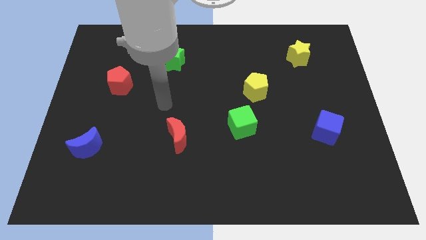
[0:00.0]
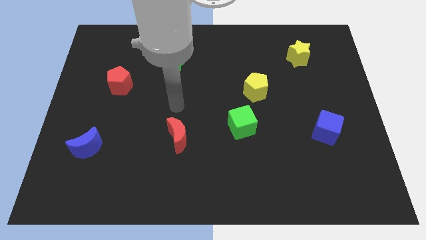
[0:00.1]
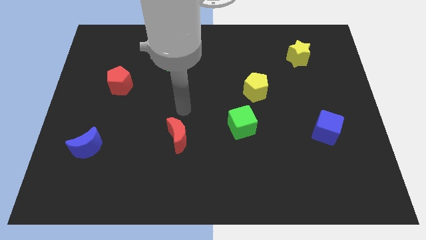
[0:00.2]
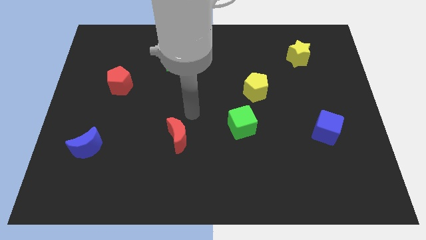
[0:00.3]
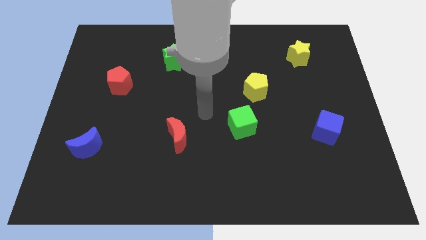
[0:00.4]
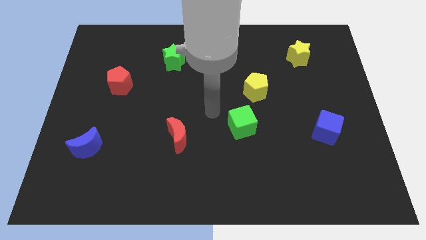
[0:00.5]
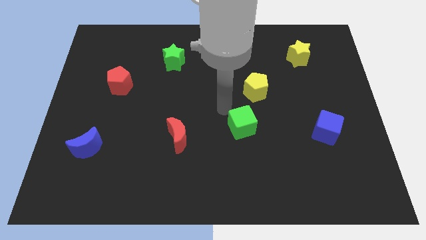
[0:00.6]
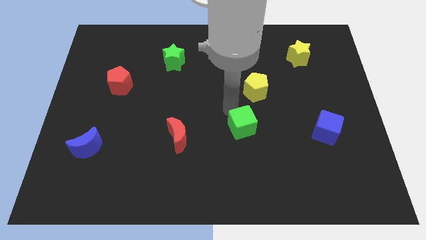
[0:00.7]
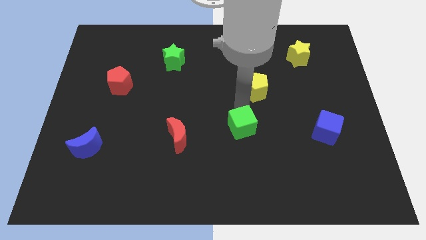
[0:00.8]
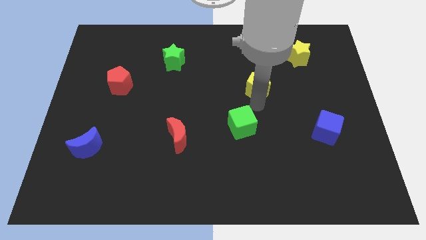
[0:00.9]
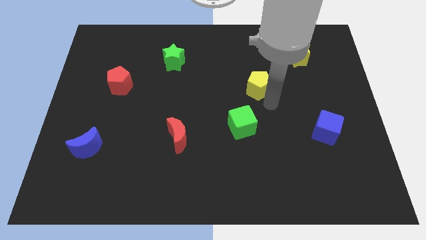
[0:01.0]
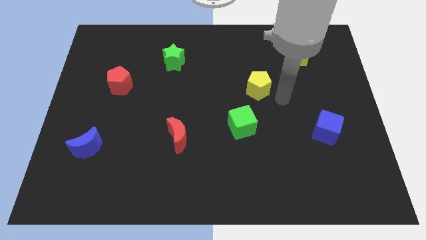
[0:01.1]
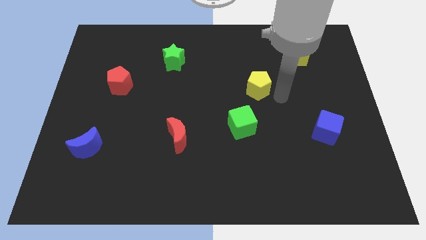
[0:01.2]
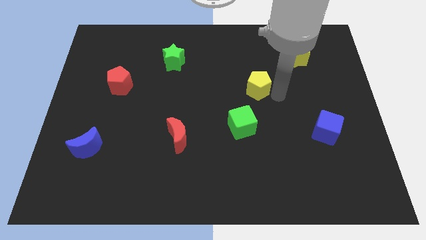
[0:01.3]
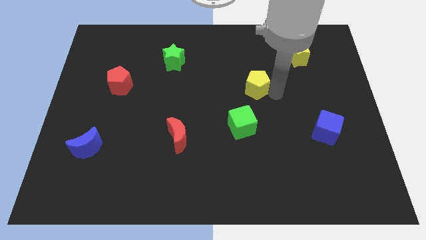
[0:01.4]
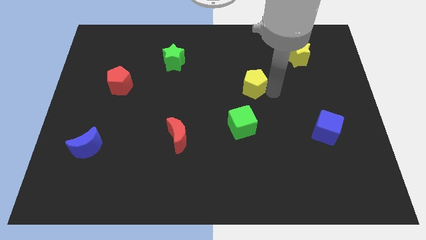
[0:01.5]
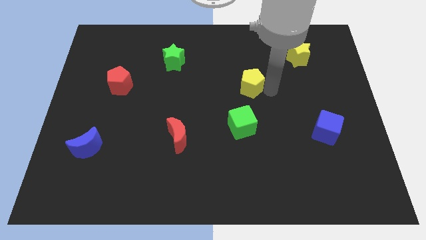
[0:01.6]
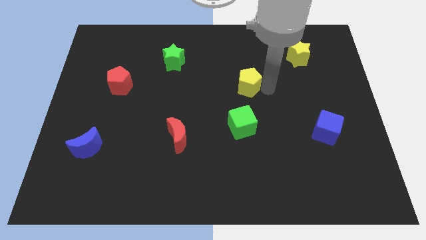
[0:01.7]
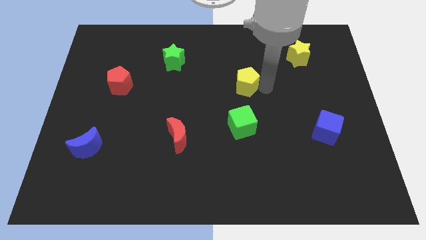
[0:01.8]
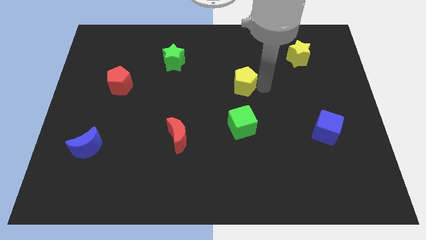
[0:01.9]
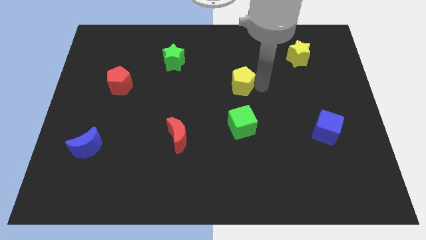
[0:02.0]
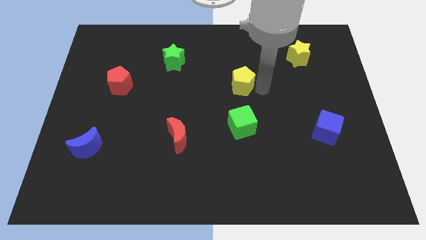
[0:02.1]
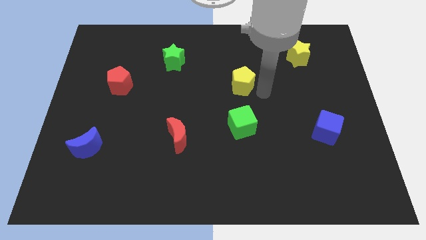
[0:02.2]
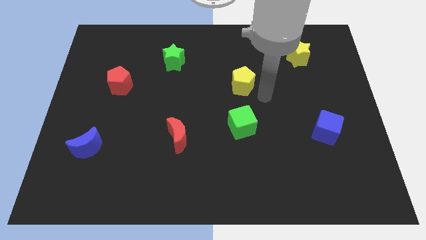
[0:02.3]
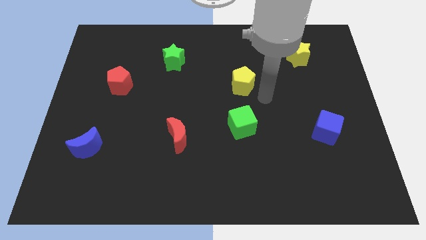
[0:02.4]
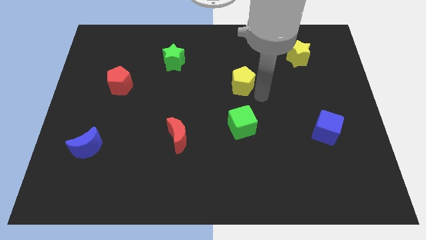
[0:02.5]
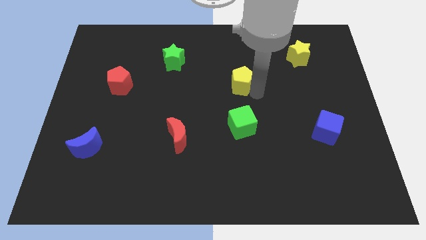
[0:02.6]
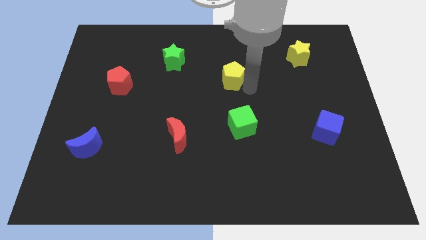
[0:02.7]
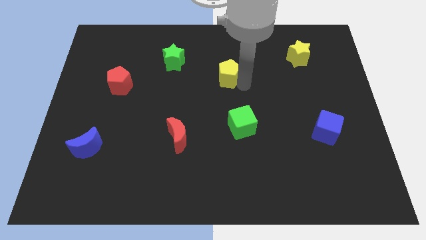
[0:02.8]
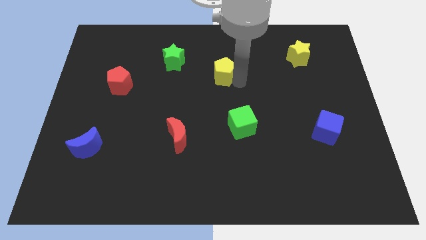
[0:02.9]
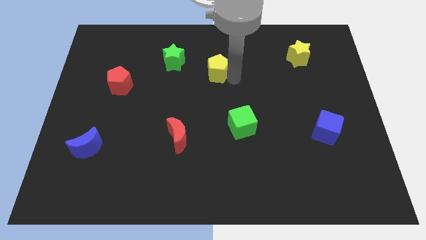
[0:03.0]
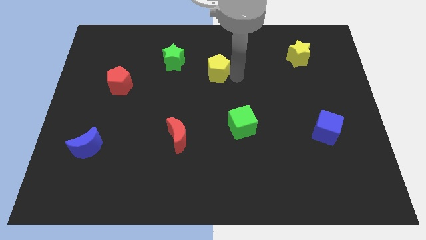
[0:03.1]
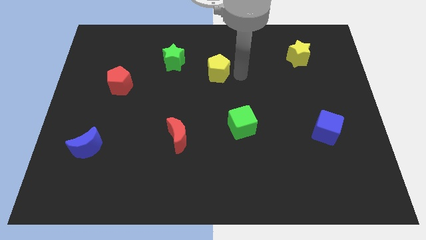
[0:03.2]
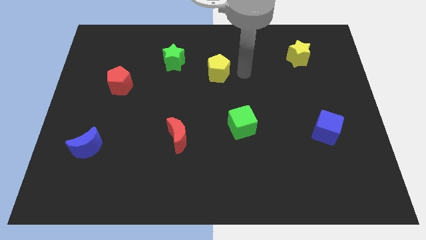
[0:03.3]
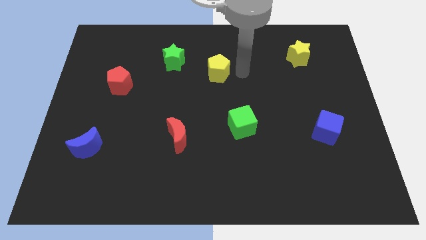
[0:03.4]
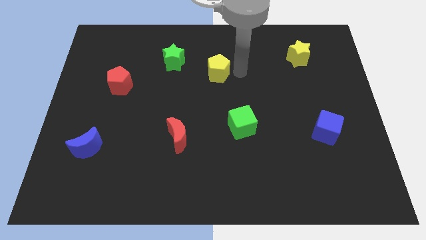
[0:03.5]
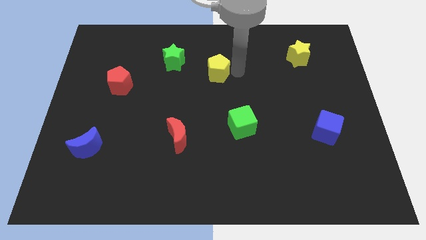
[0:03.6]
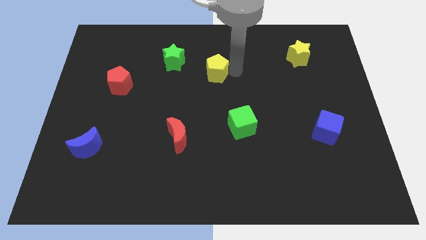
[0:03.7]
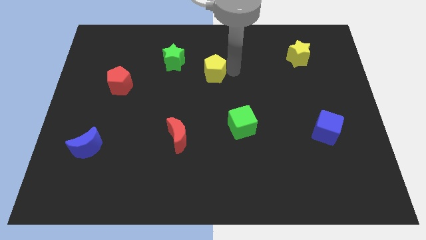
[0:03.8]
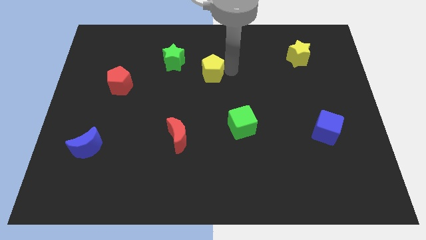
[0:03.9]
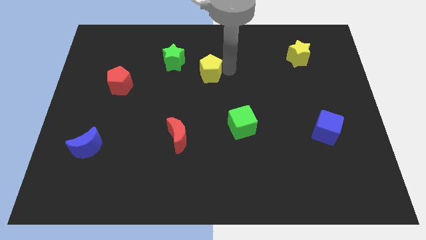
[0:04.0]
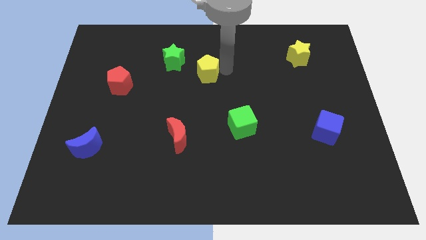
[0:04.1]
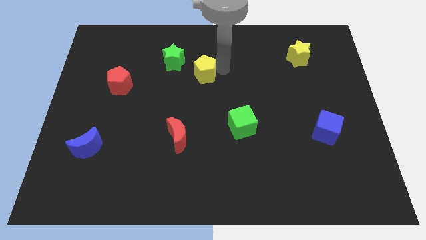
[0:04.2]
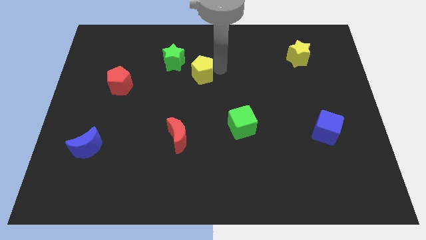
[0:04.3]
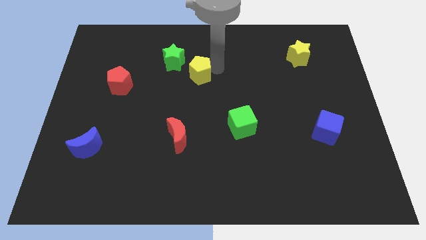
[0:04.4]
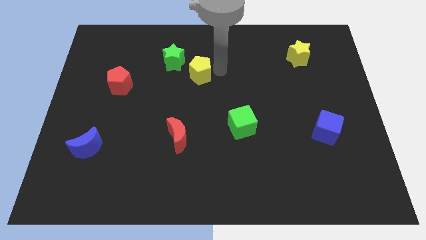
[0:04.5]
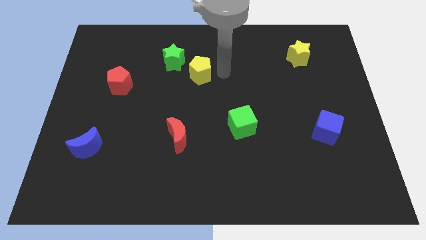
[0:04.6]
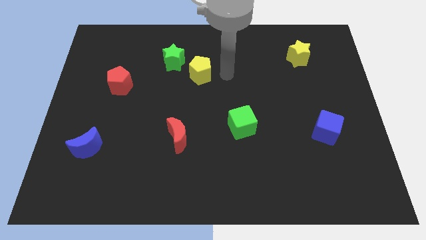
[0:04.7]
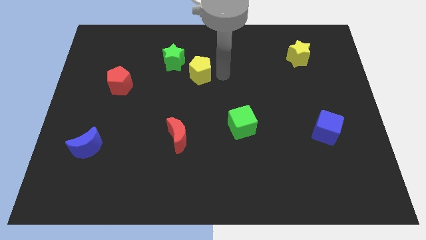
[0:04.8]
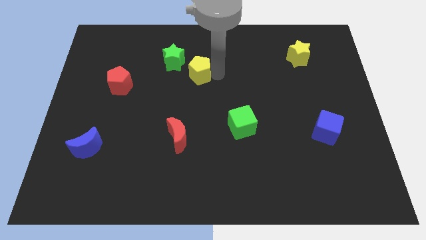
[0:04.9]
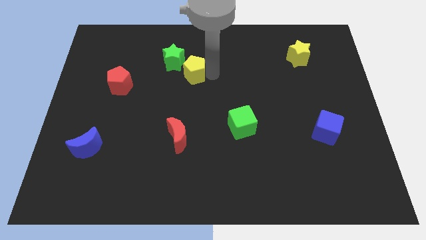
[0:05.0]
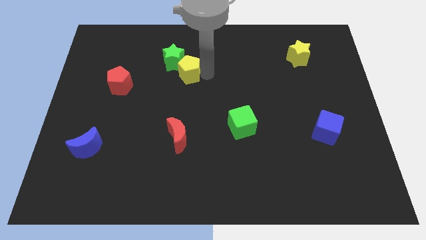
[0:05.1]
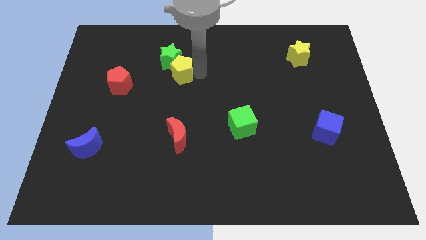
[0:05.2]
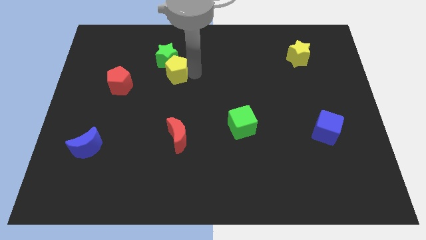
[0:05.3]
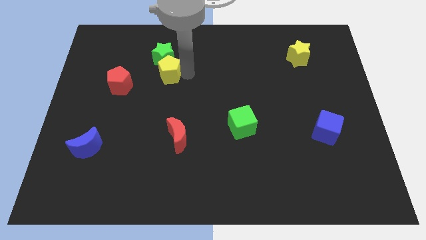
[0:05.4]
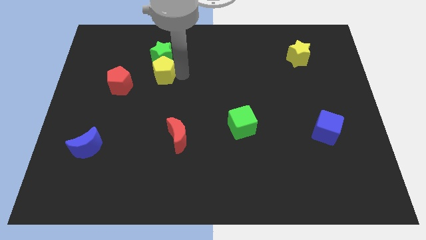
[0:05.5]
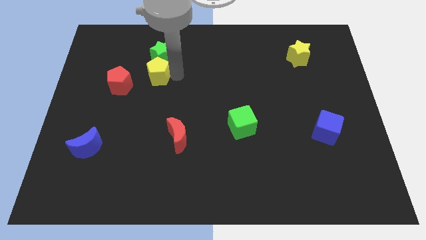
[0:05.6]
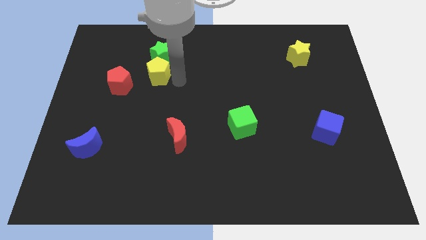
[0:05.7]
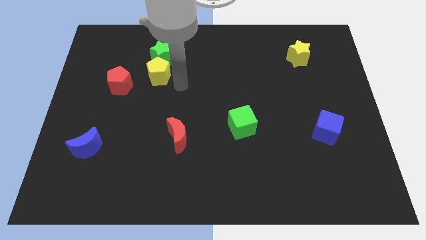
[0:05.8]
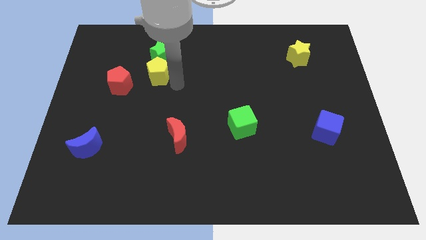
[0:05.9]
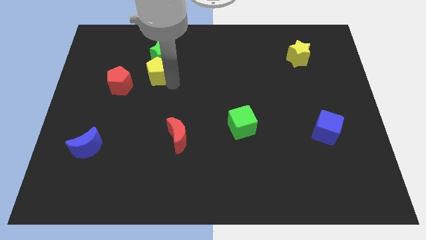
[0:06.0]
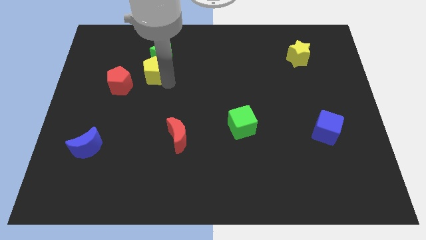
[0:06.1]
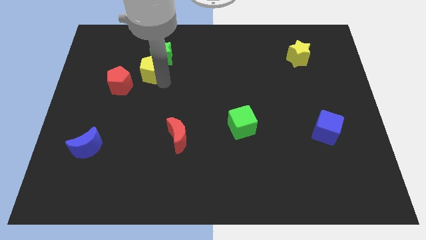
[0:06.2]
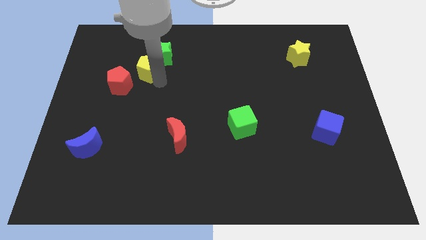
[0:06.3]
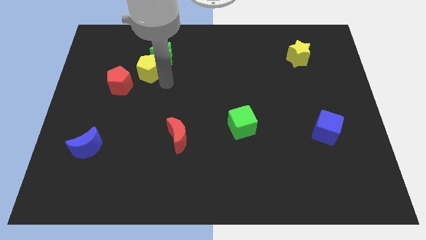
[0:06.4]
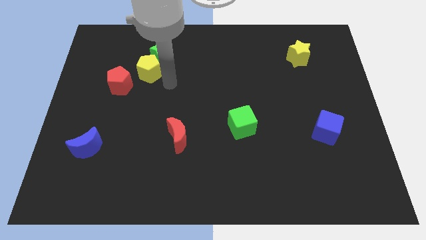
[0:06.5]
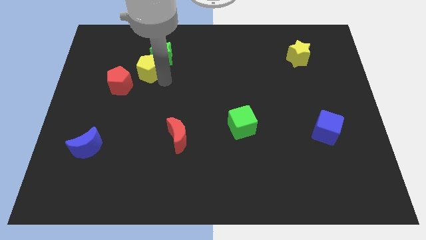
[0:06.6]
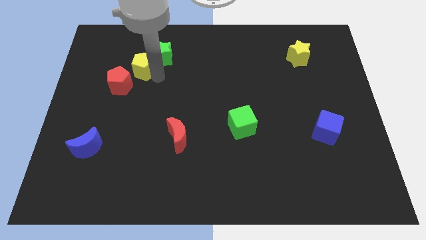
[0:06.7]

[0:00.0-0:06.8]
push the yellow pentagon just left of the green star
